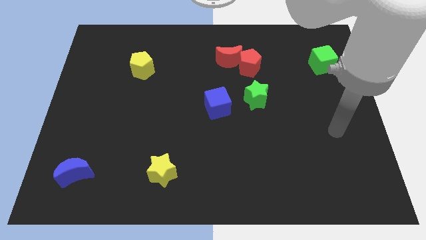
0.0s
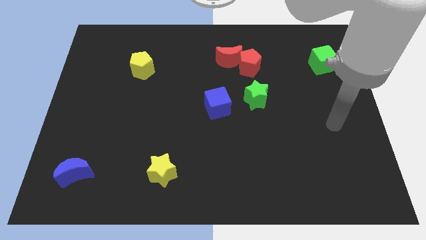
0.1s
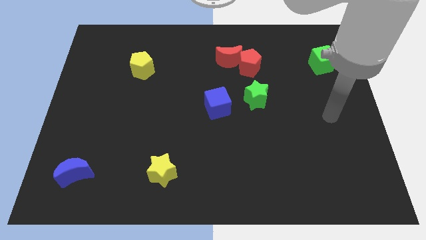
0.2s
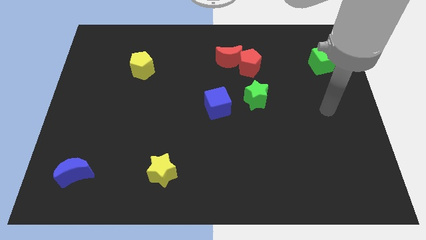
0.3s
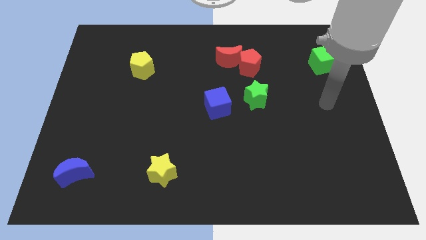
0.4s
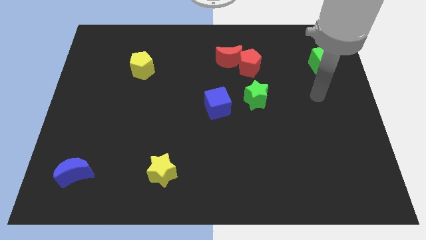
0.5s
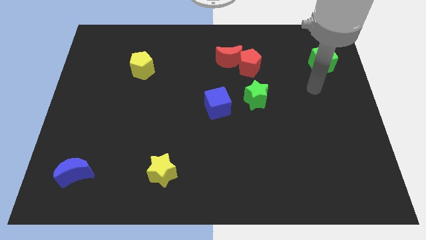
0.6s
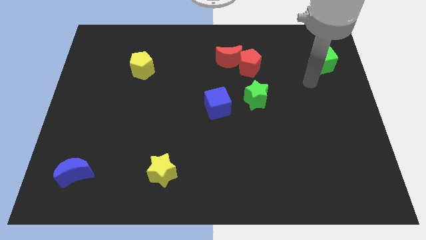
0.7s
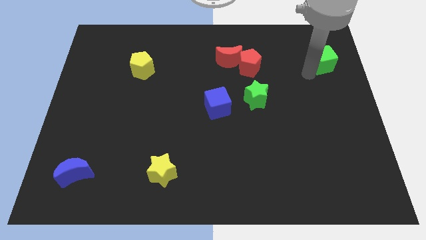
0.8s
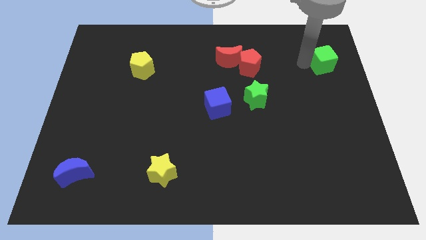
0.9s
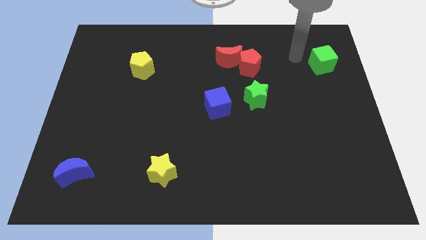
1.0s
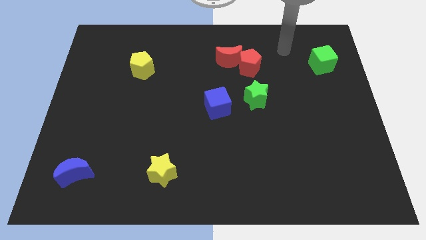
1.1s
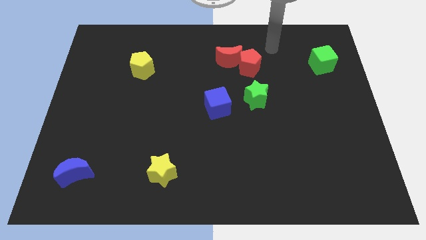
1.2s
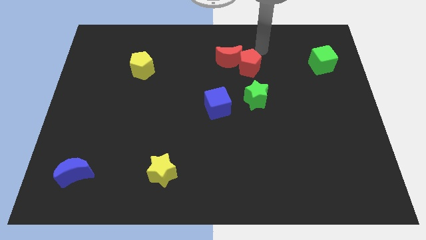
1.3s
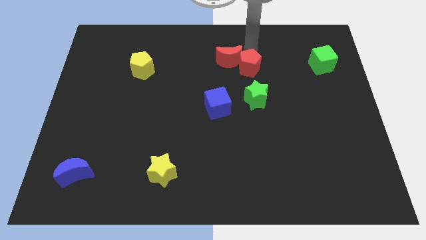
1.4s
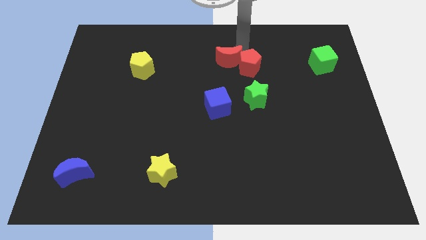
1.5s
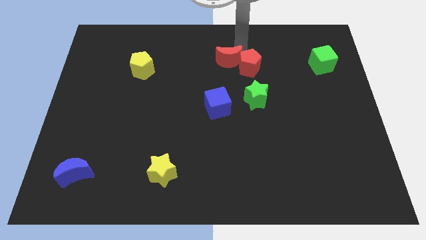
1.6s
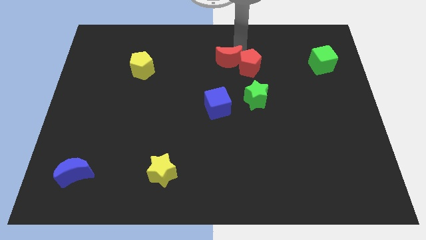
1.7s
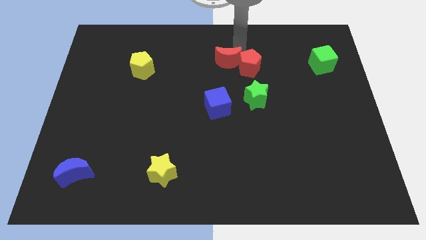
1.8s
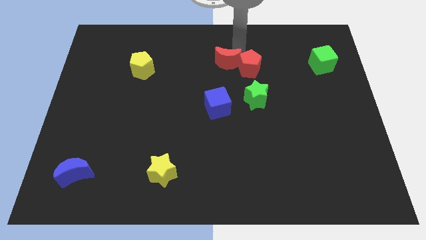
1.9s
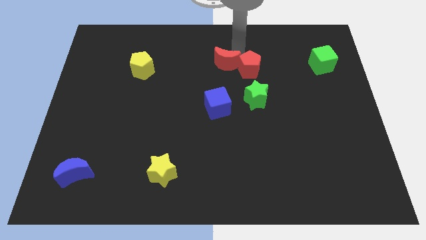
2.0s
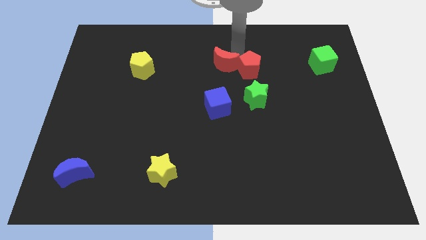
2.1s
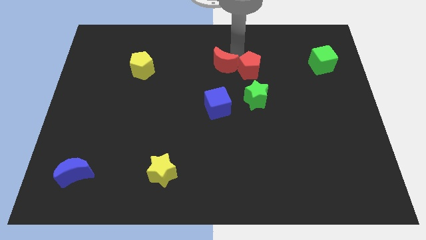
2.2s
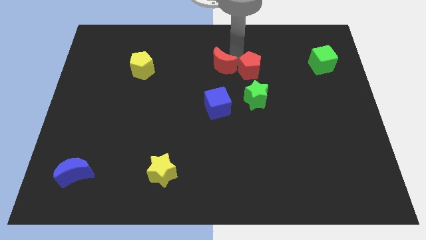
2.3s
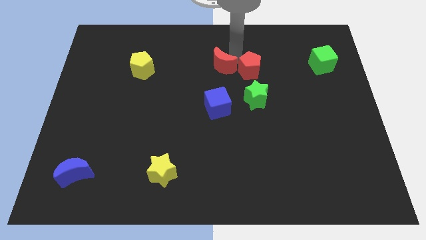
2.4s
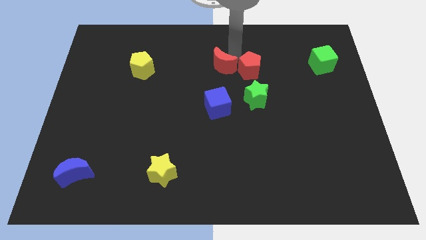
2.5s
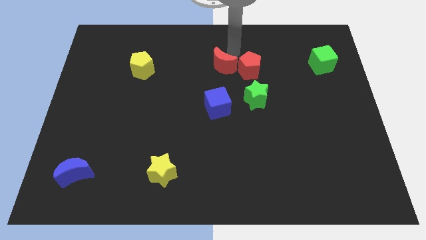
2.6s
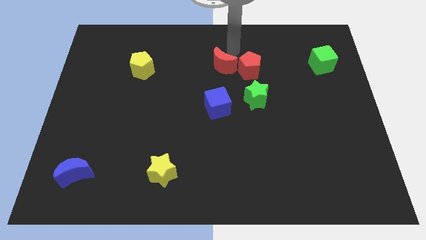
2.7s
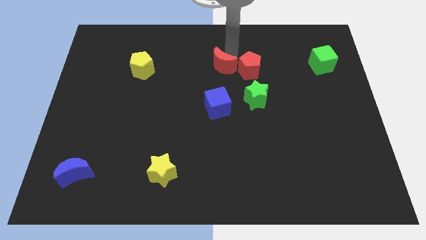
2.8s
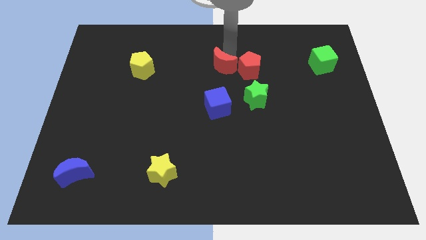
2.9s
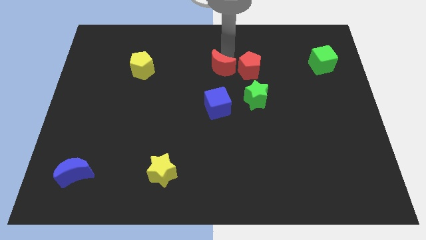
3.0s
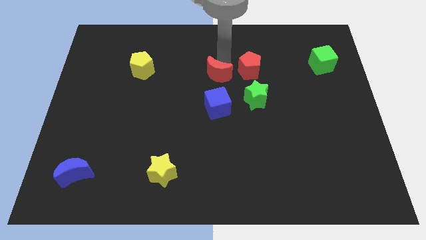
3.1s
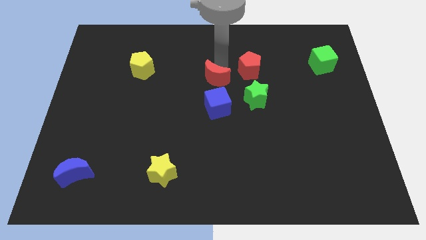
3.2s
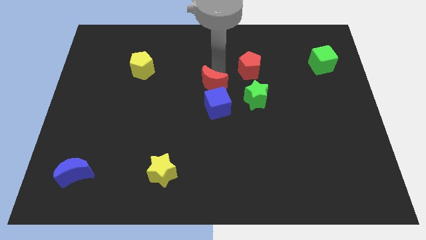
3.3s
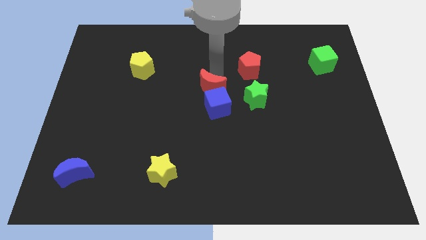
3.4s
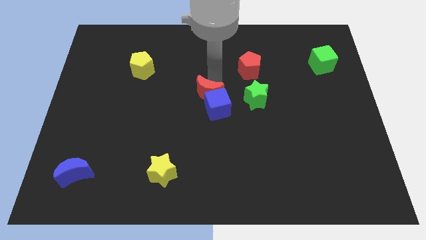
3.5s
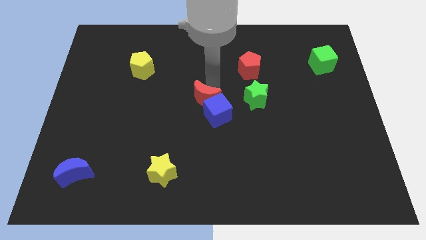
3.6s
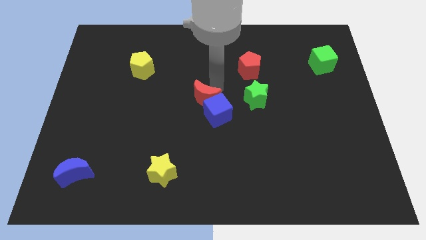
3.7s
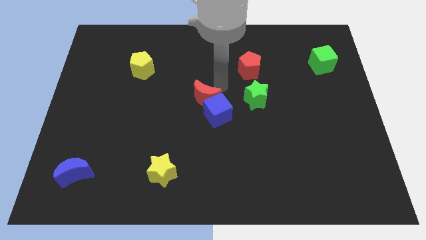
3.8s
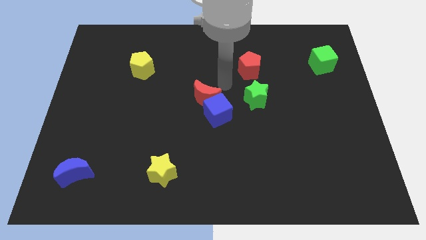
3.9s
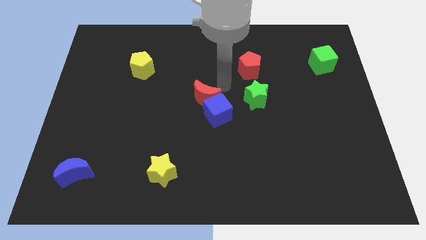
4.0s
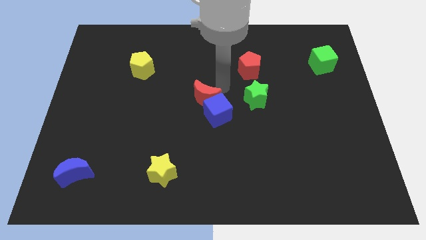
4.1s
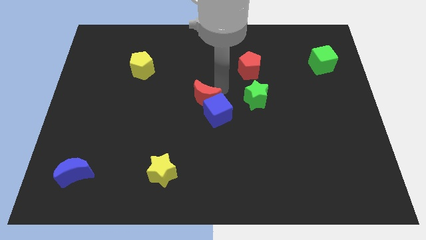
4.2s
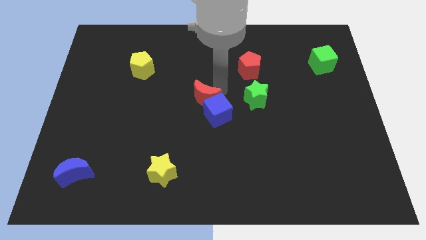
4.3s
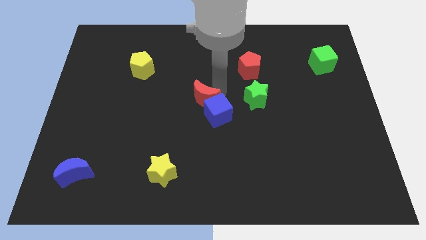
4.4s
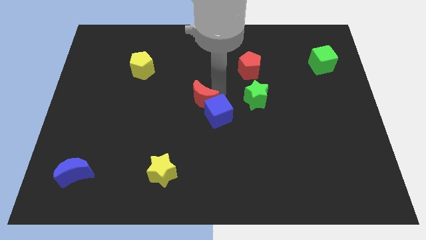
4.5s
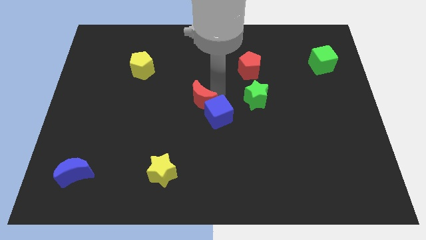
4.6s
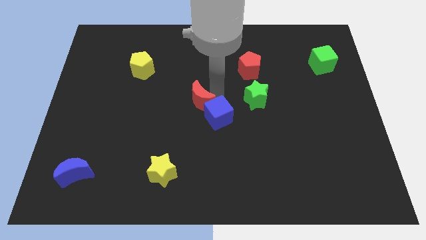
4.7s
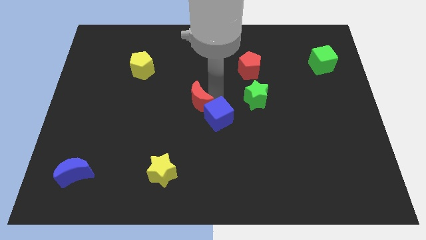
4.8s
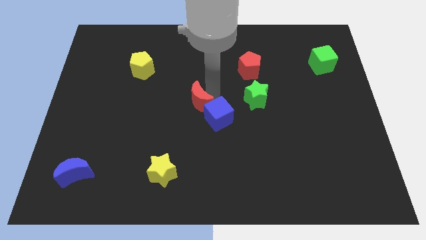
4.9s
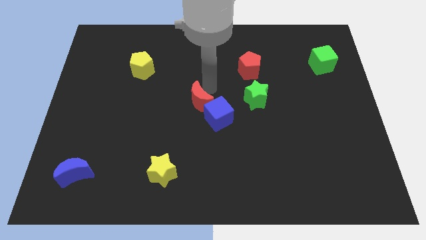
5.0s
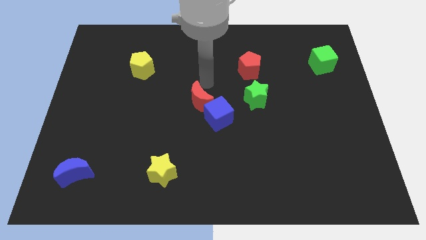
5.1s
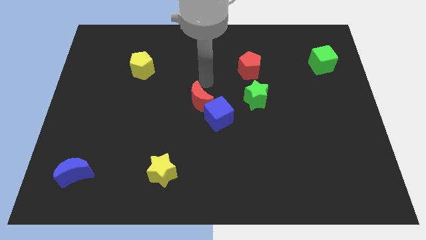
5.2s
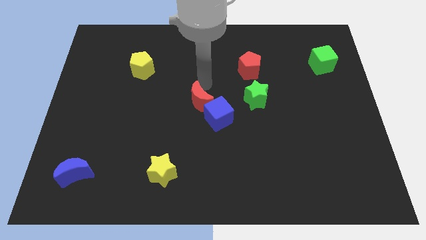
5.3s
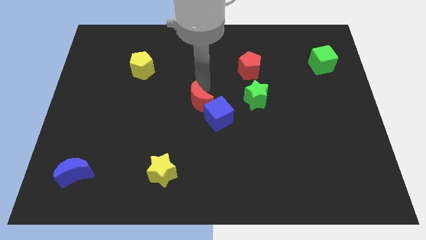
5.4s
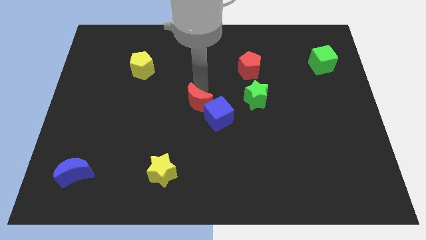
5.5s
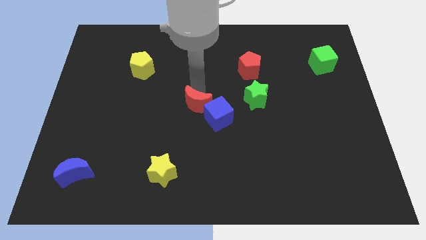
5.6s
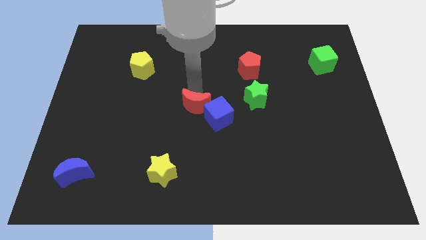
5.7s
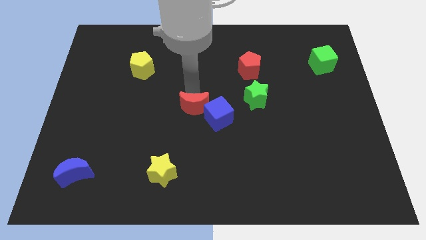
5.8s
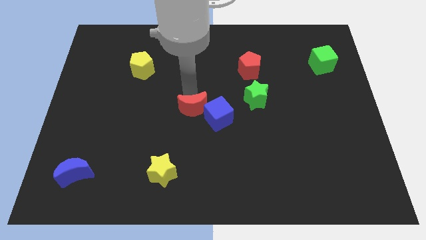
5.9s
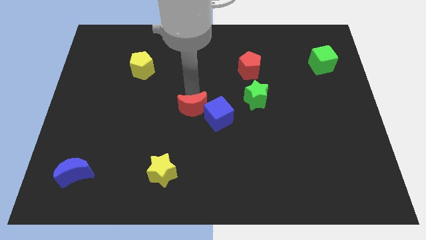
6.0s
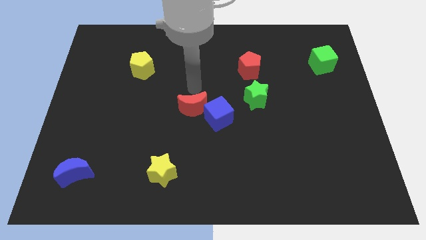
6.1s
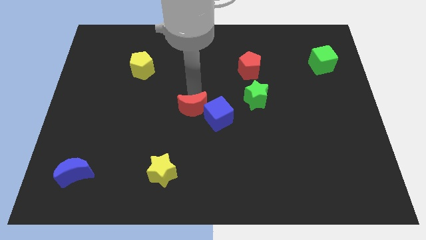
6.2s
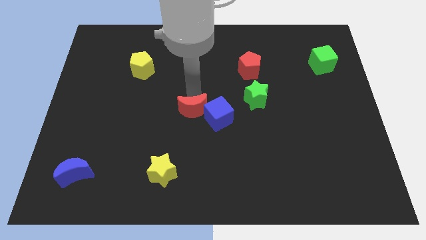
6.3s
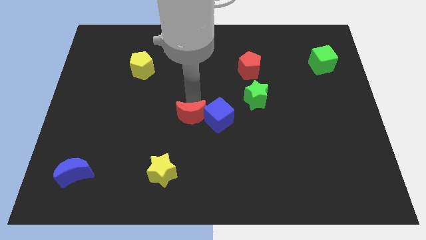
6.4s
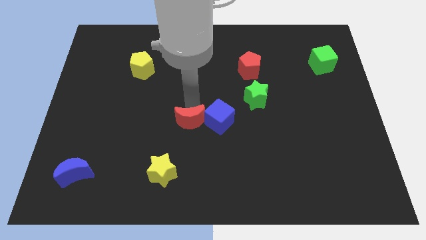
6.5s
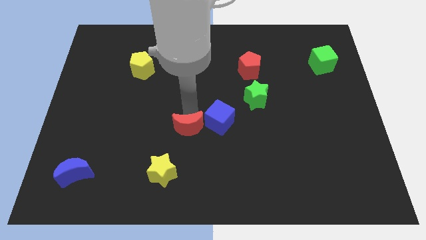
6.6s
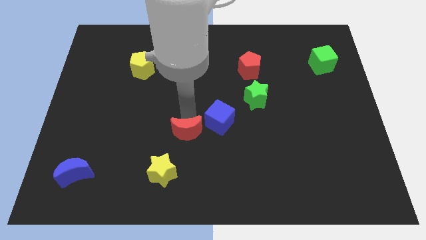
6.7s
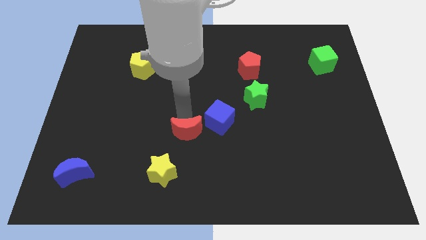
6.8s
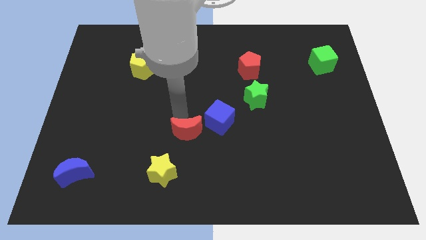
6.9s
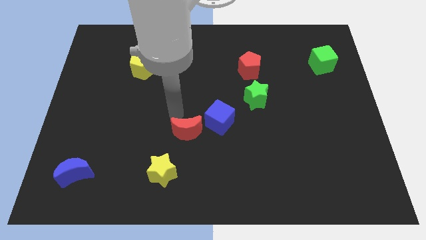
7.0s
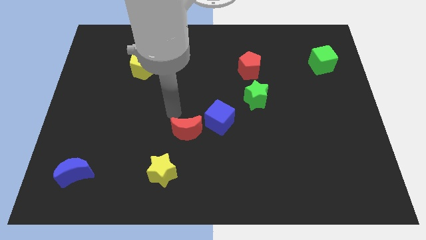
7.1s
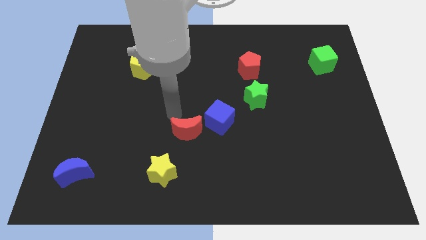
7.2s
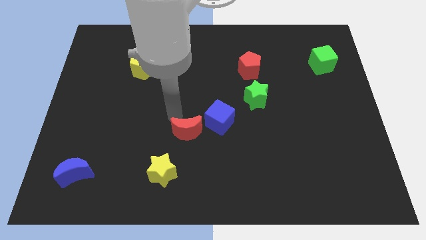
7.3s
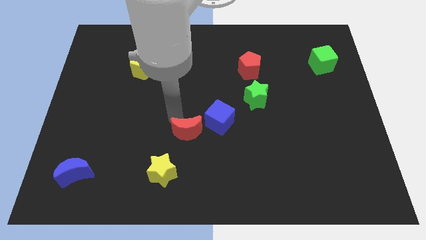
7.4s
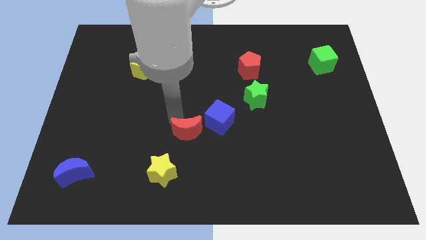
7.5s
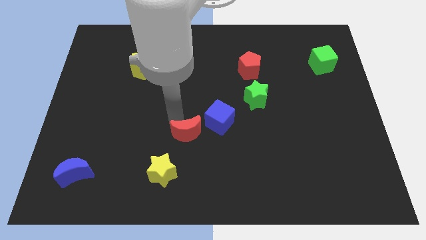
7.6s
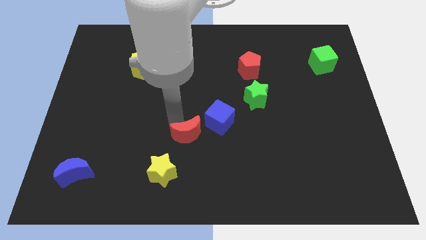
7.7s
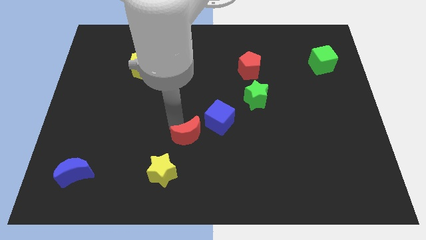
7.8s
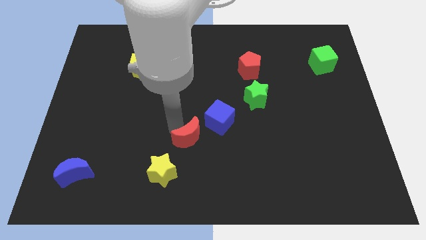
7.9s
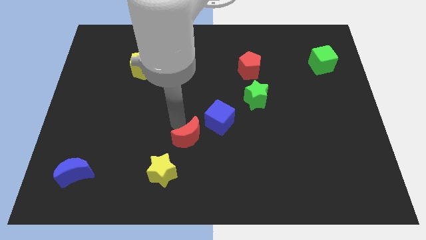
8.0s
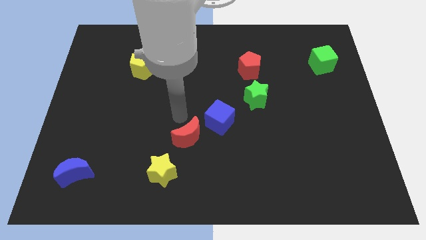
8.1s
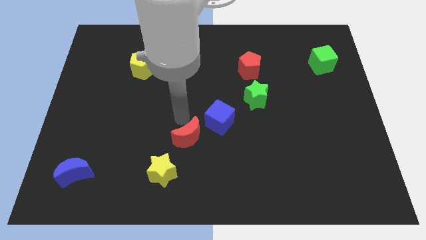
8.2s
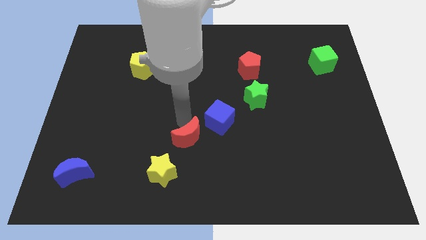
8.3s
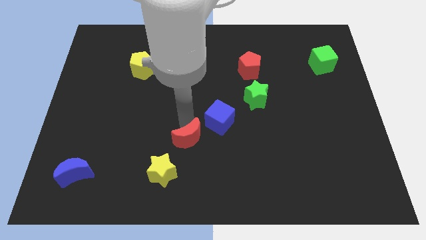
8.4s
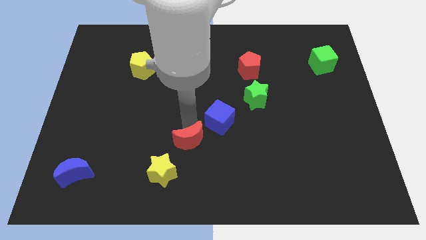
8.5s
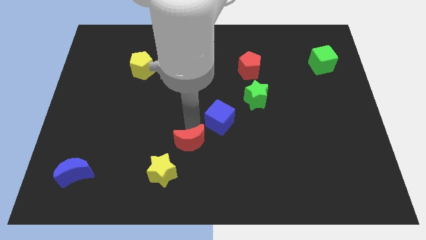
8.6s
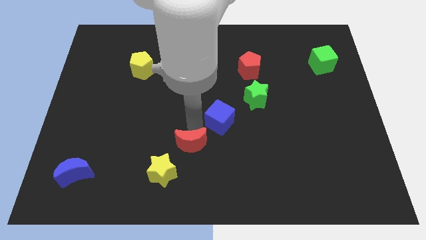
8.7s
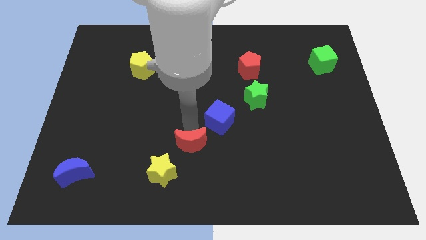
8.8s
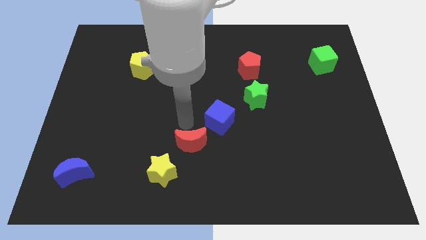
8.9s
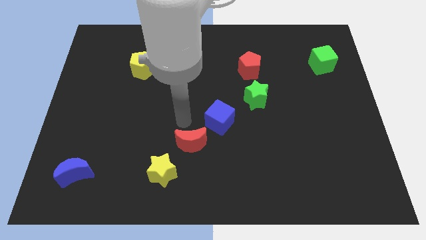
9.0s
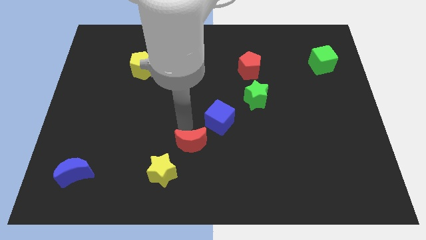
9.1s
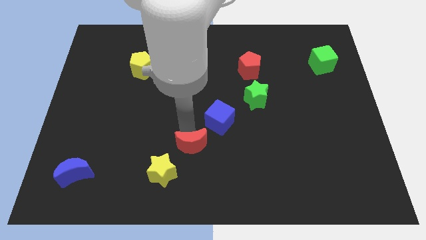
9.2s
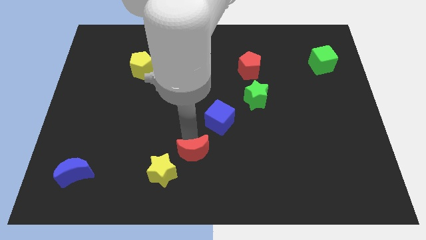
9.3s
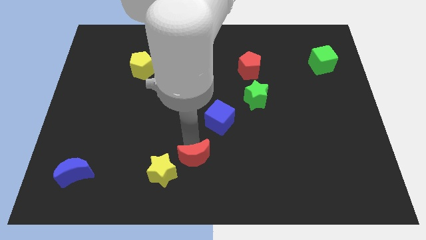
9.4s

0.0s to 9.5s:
push the red moon to the bottom side
